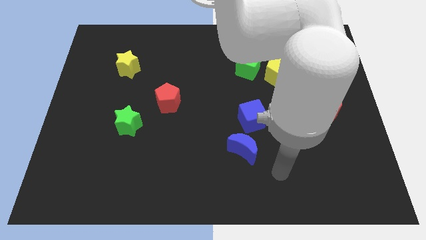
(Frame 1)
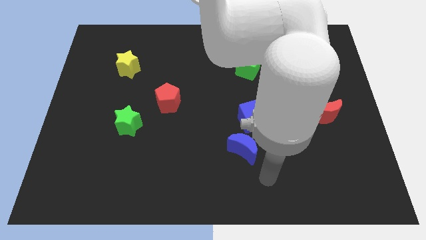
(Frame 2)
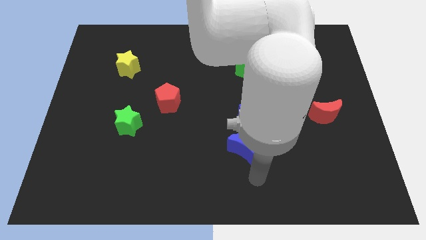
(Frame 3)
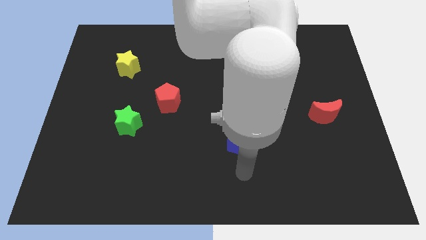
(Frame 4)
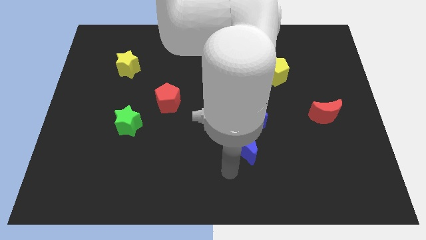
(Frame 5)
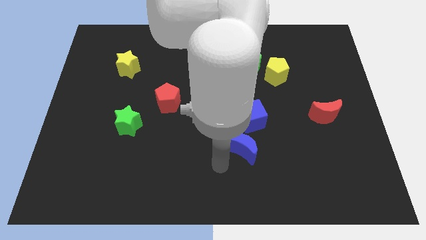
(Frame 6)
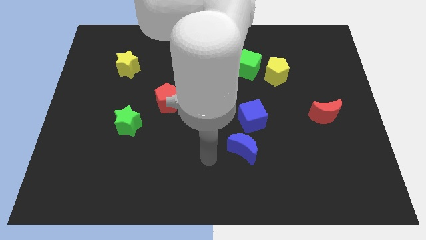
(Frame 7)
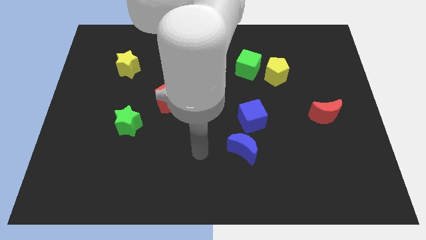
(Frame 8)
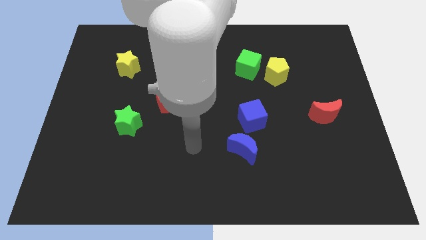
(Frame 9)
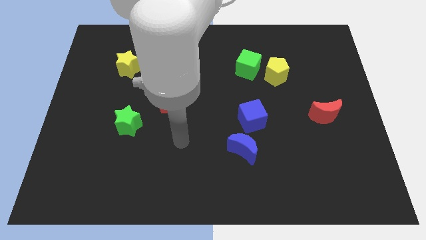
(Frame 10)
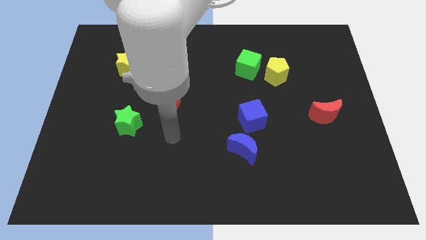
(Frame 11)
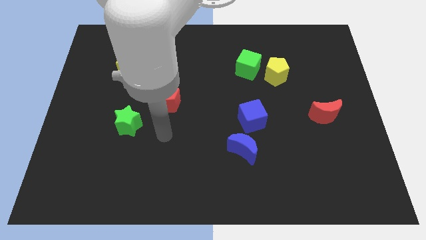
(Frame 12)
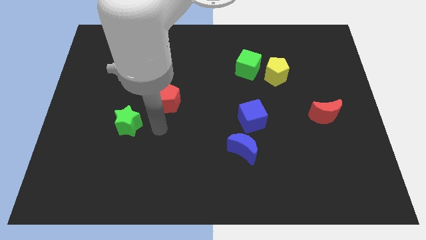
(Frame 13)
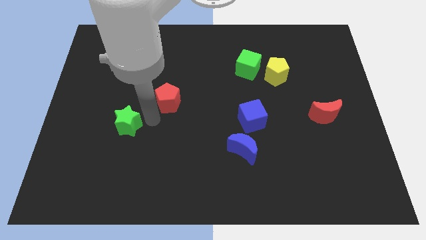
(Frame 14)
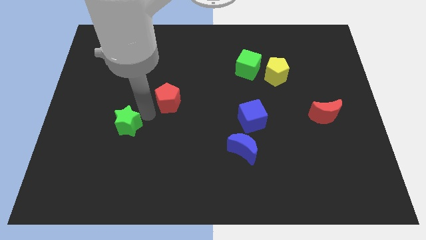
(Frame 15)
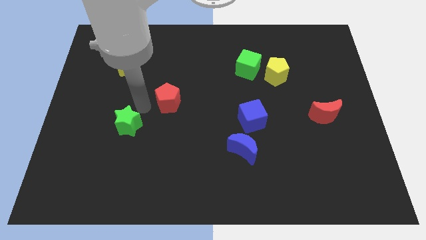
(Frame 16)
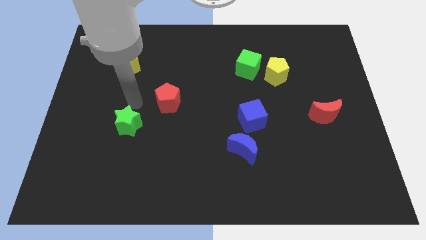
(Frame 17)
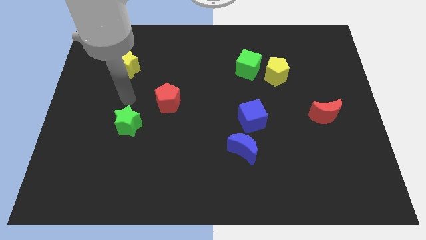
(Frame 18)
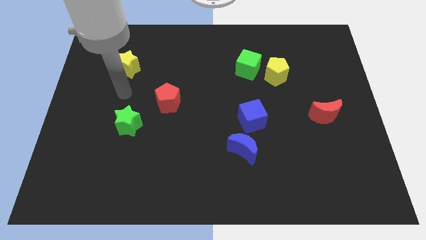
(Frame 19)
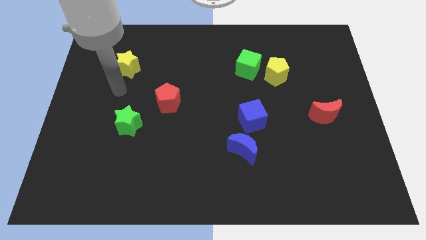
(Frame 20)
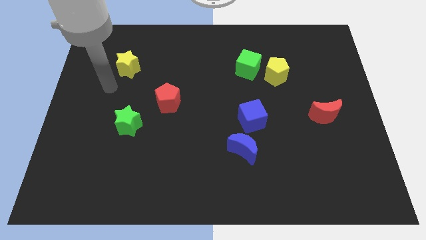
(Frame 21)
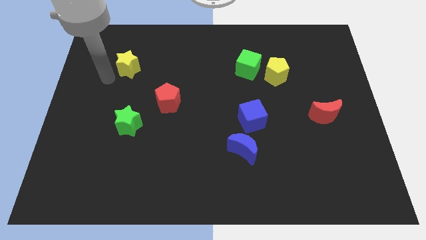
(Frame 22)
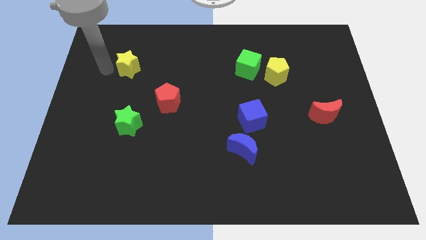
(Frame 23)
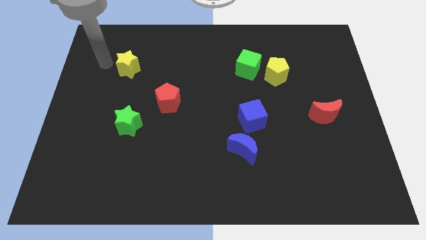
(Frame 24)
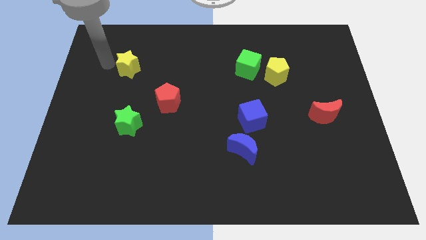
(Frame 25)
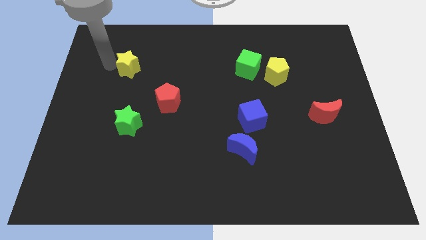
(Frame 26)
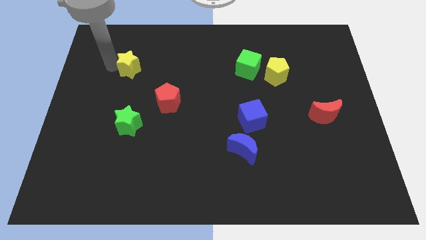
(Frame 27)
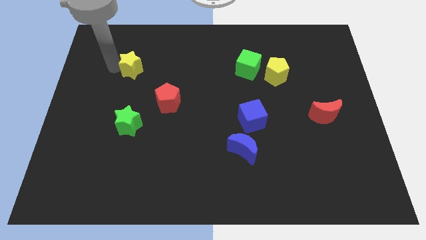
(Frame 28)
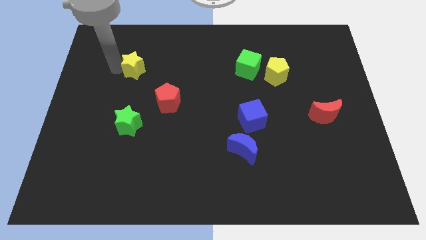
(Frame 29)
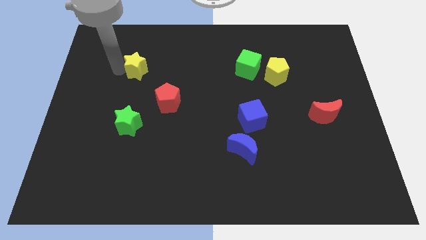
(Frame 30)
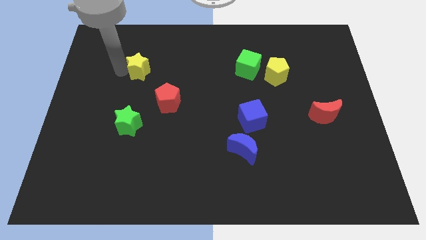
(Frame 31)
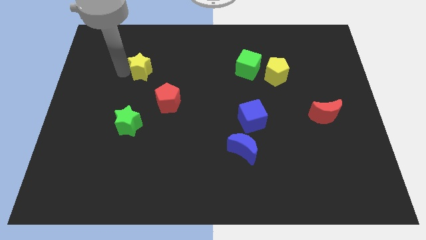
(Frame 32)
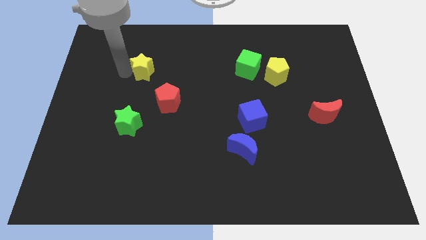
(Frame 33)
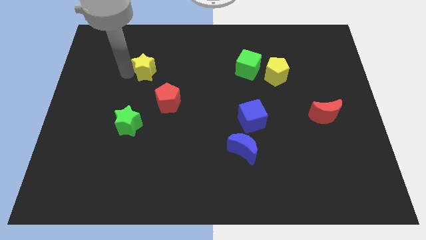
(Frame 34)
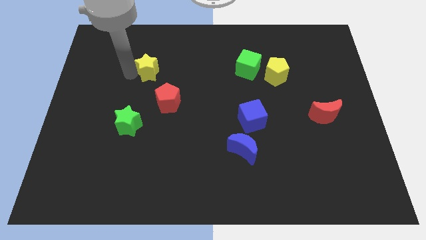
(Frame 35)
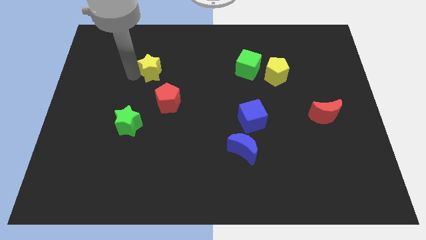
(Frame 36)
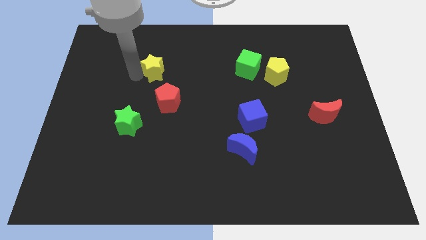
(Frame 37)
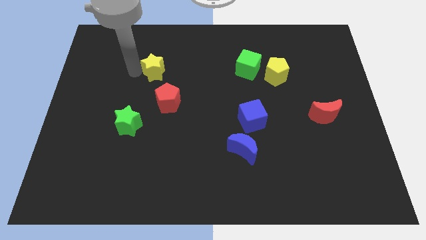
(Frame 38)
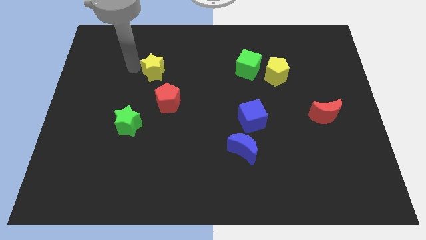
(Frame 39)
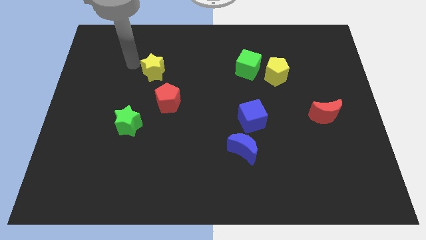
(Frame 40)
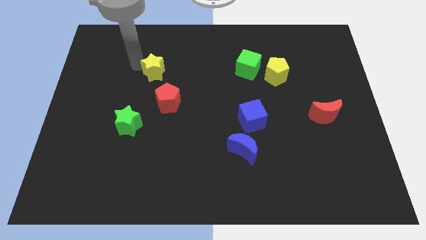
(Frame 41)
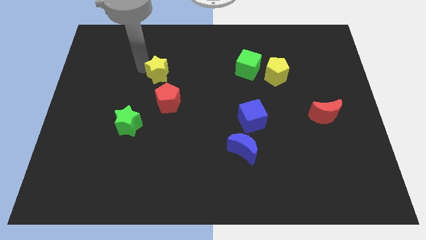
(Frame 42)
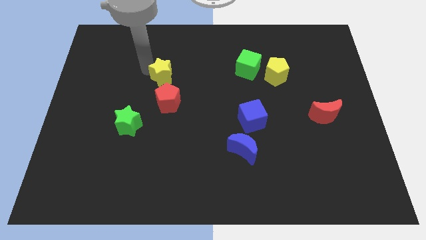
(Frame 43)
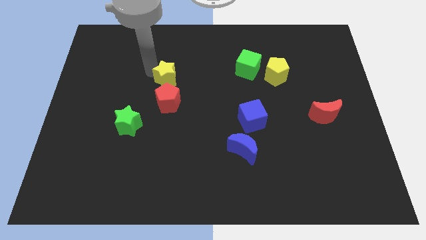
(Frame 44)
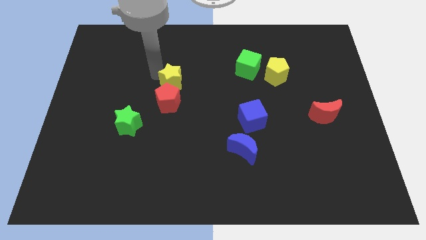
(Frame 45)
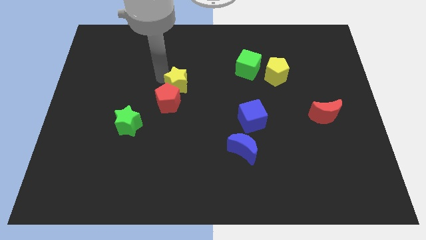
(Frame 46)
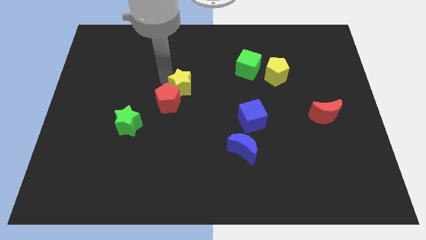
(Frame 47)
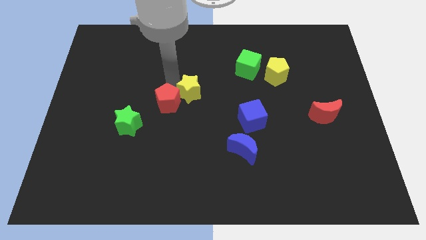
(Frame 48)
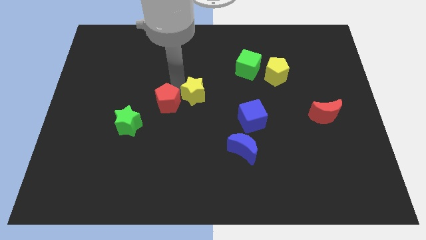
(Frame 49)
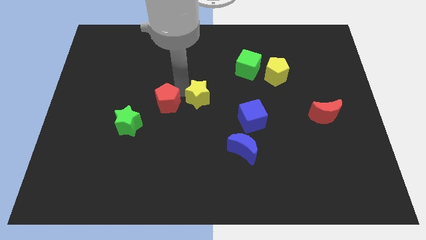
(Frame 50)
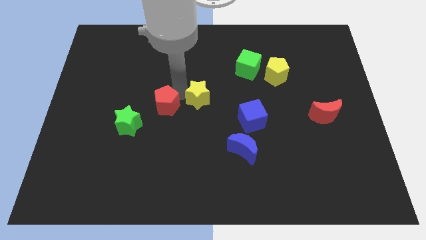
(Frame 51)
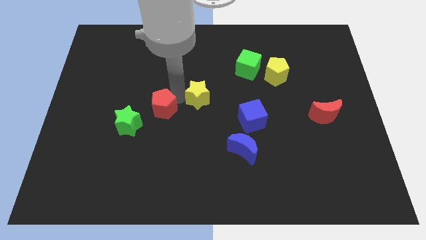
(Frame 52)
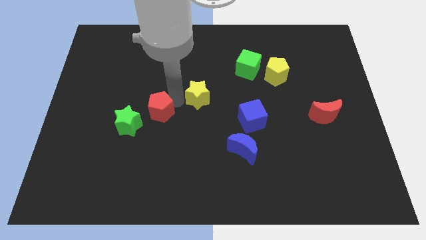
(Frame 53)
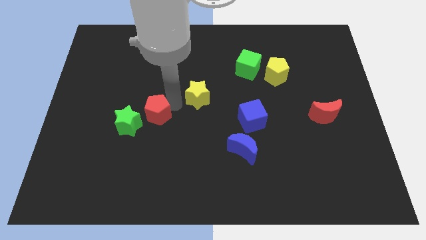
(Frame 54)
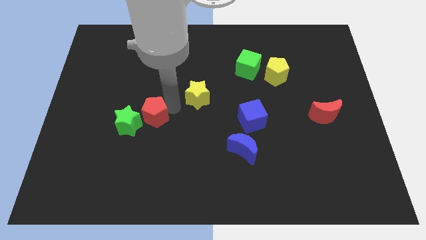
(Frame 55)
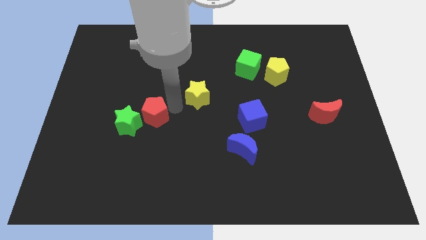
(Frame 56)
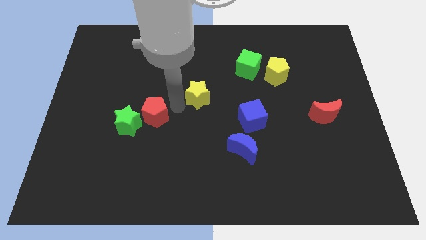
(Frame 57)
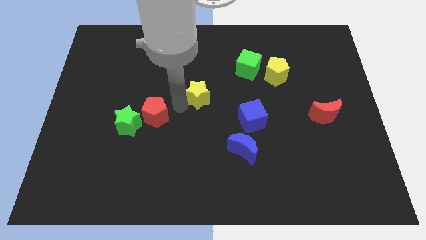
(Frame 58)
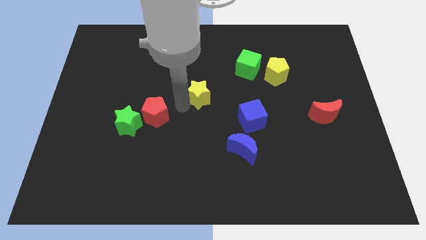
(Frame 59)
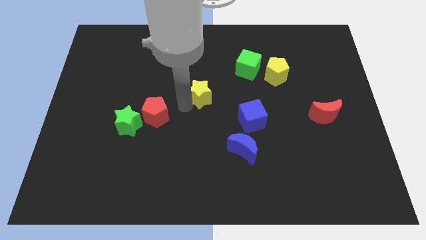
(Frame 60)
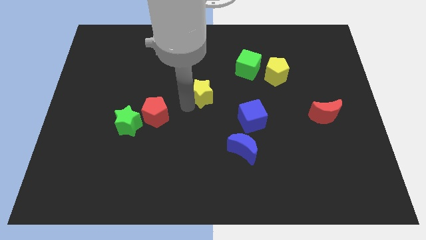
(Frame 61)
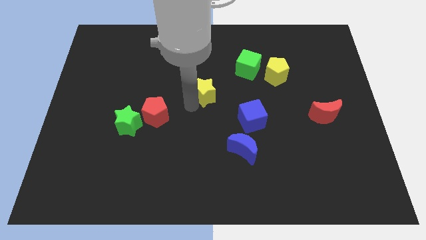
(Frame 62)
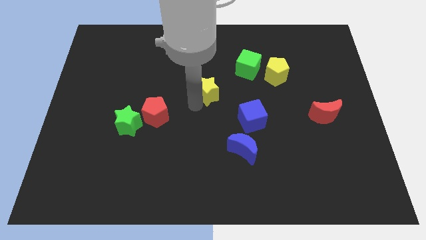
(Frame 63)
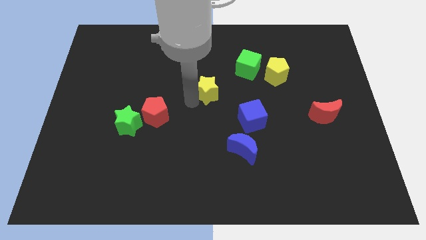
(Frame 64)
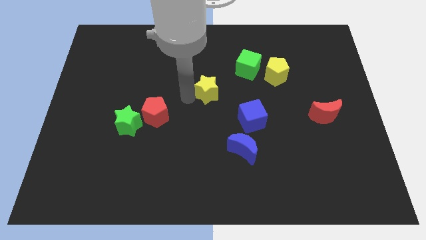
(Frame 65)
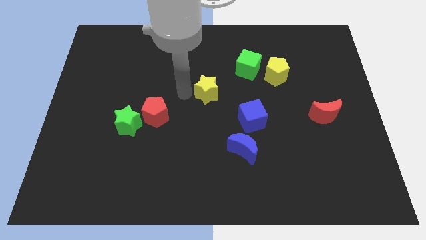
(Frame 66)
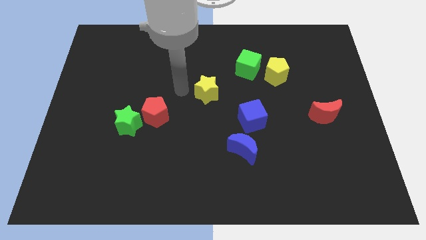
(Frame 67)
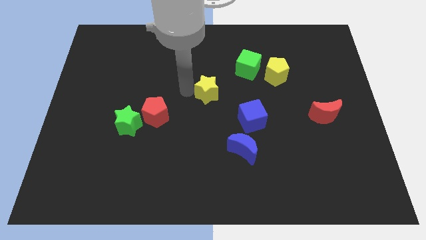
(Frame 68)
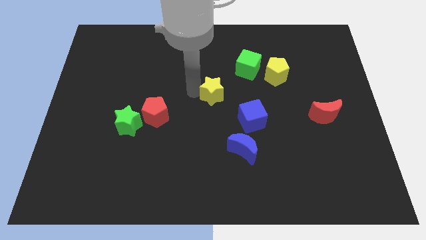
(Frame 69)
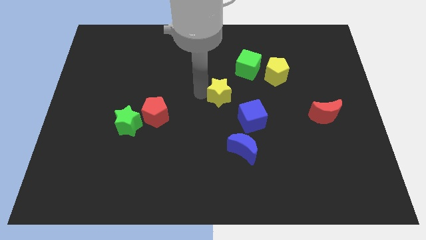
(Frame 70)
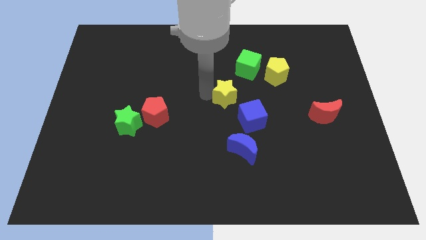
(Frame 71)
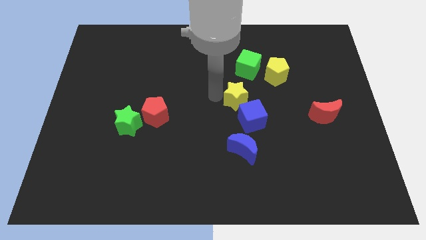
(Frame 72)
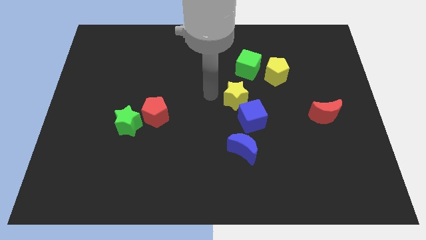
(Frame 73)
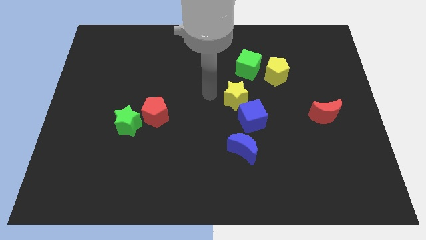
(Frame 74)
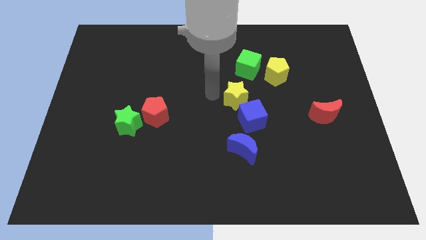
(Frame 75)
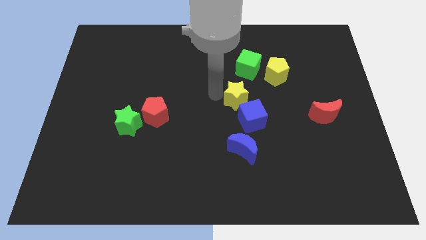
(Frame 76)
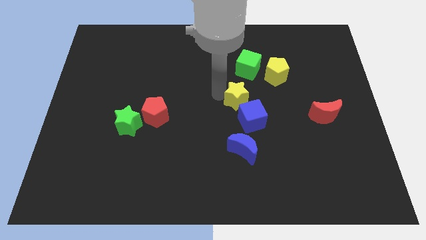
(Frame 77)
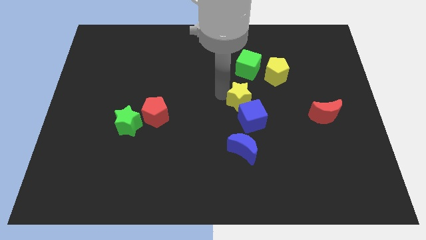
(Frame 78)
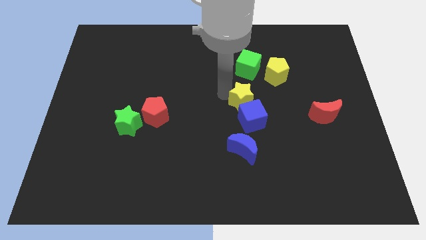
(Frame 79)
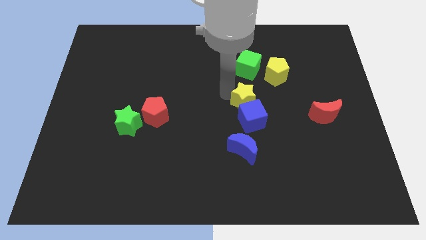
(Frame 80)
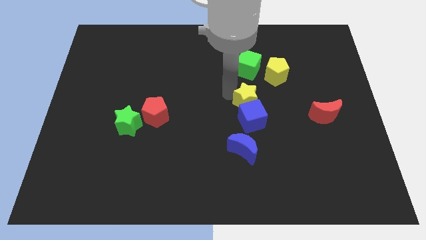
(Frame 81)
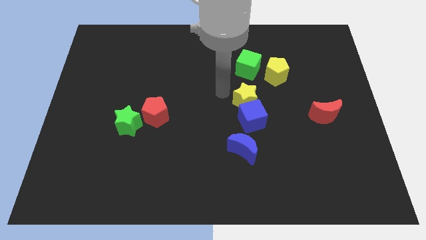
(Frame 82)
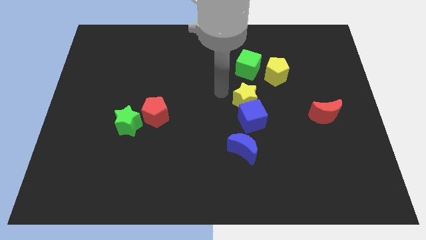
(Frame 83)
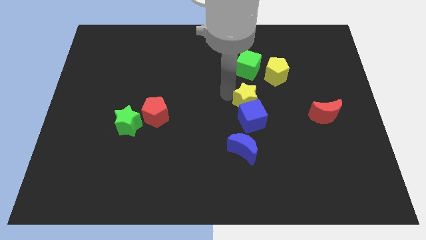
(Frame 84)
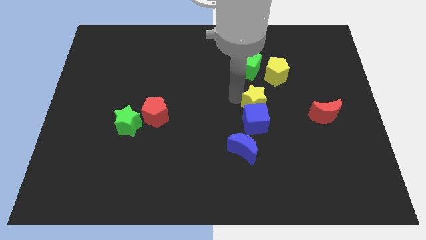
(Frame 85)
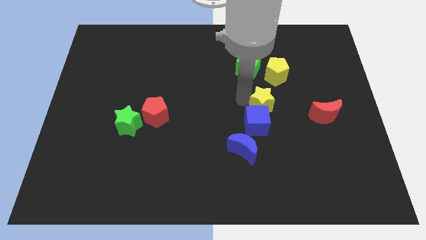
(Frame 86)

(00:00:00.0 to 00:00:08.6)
push the yellow star to the left side of the red moon
